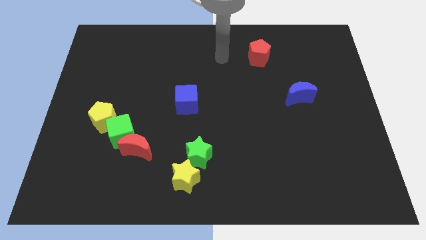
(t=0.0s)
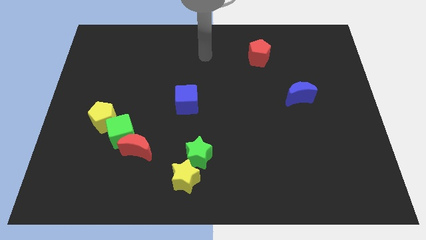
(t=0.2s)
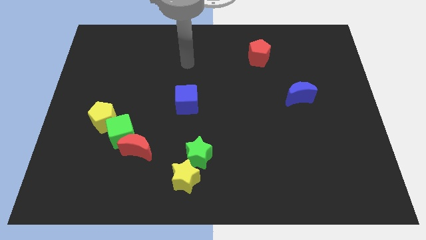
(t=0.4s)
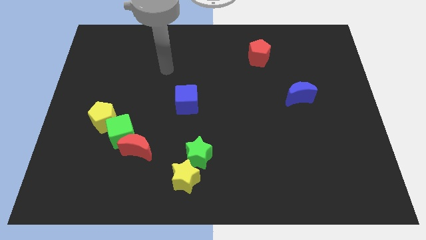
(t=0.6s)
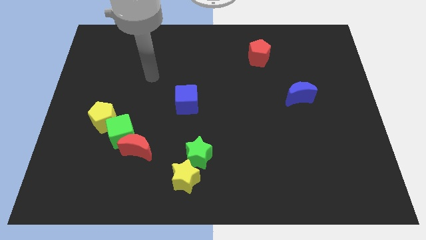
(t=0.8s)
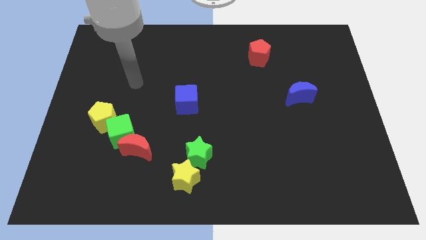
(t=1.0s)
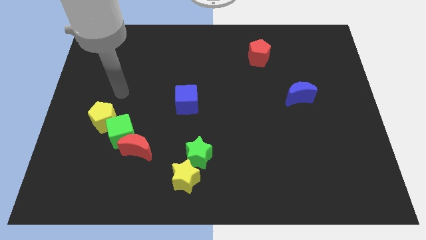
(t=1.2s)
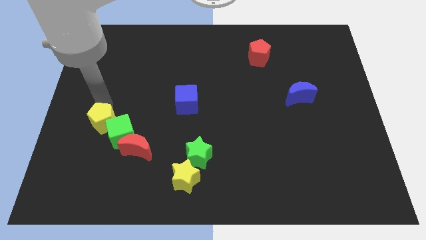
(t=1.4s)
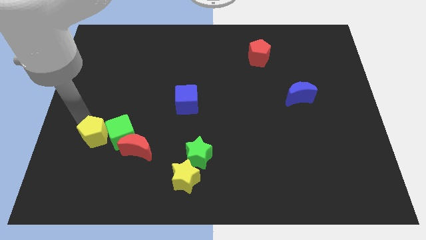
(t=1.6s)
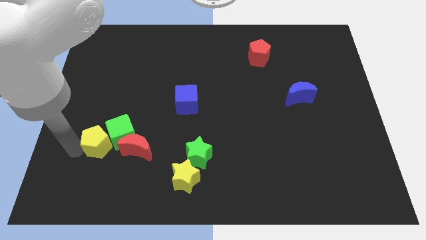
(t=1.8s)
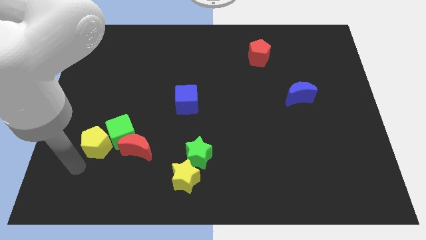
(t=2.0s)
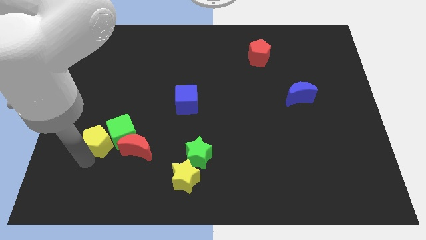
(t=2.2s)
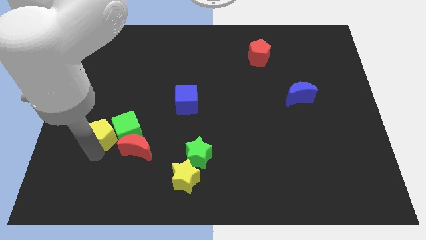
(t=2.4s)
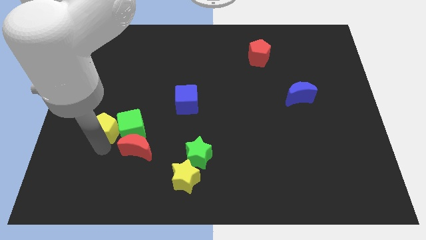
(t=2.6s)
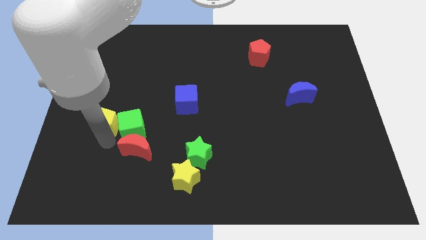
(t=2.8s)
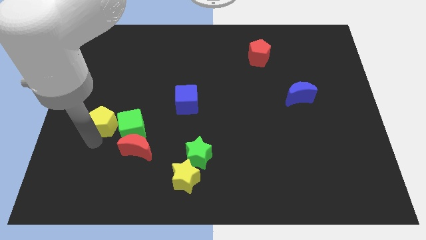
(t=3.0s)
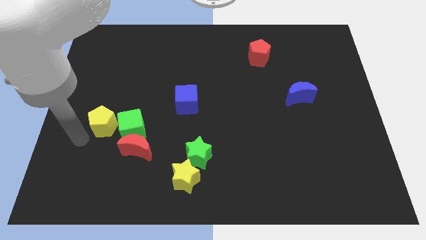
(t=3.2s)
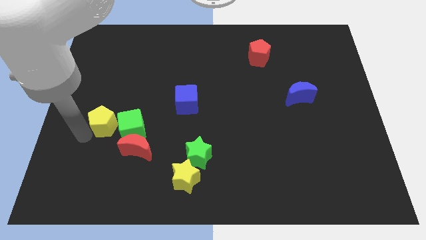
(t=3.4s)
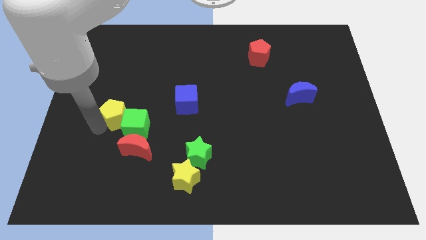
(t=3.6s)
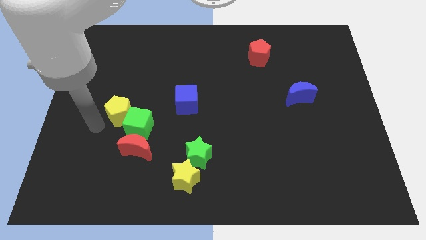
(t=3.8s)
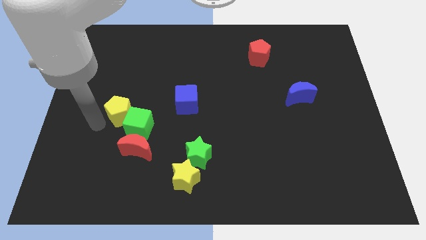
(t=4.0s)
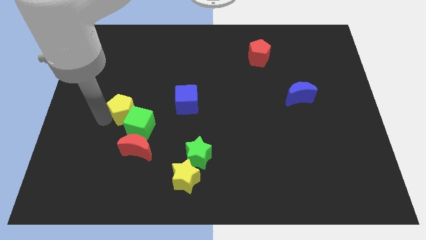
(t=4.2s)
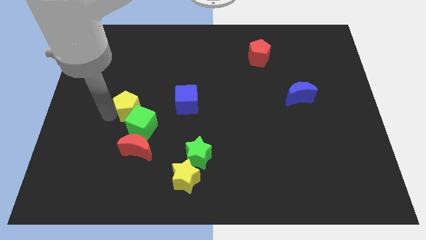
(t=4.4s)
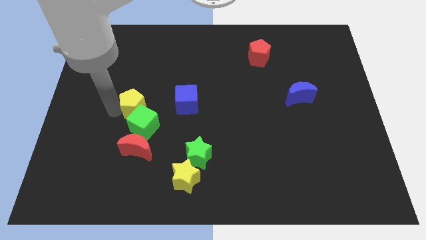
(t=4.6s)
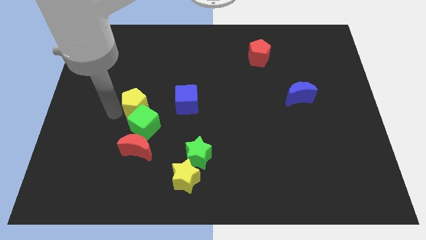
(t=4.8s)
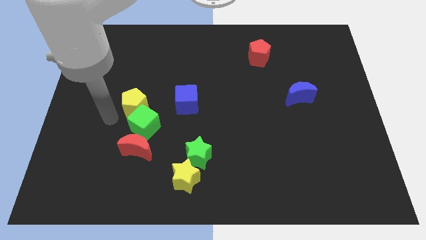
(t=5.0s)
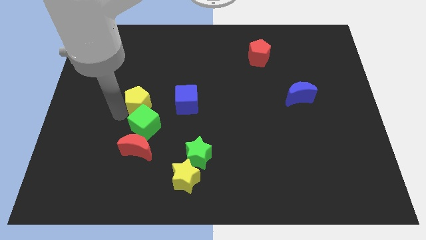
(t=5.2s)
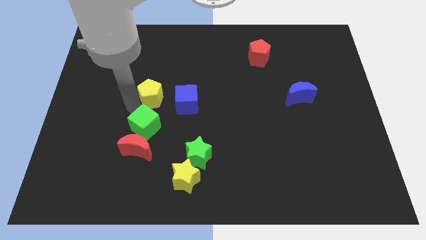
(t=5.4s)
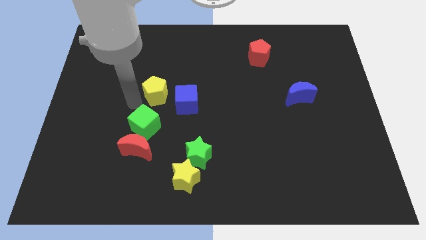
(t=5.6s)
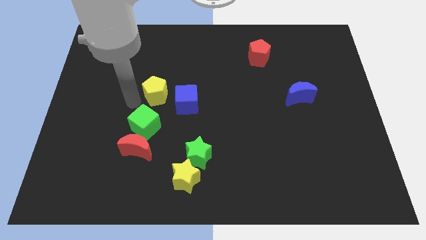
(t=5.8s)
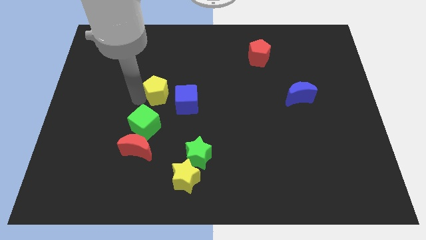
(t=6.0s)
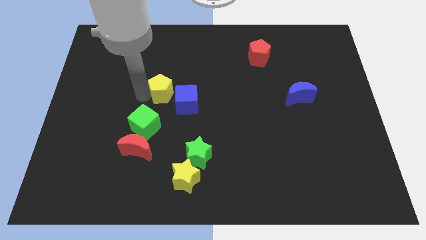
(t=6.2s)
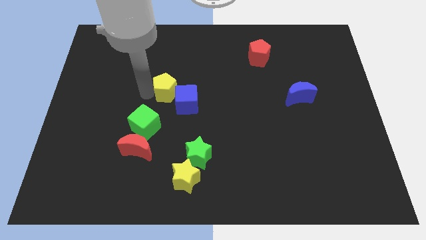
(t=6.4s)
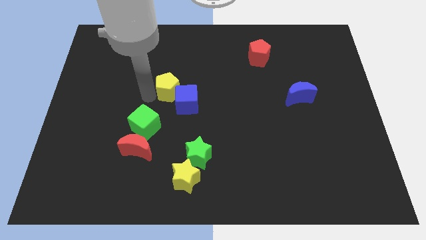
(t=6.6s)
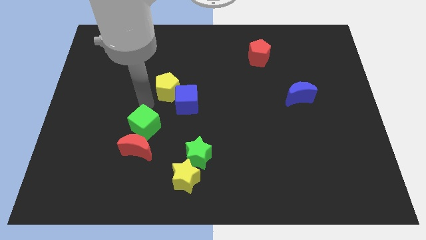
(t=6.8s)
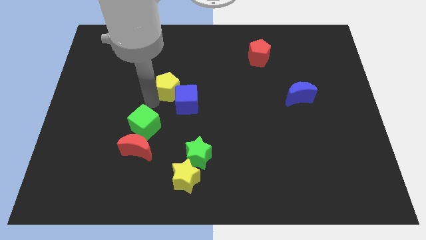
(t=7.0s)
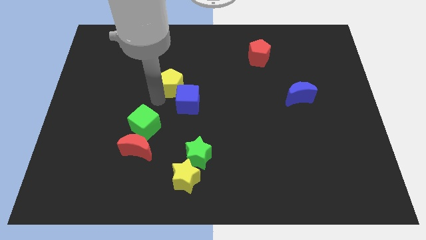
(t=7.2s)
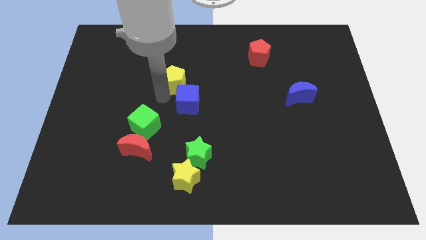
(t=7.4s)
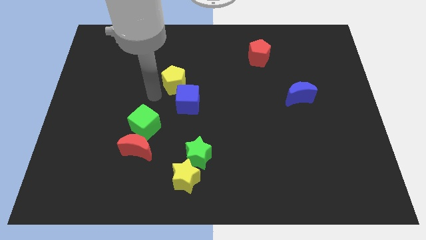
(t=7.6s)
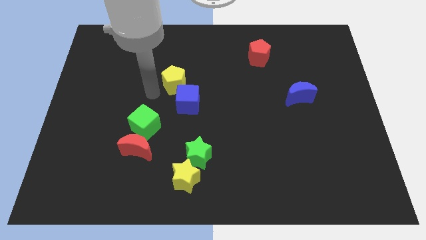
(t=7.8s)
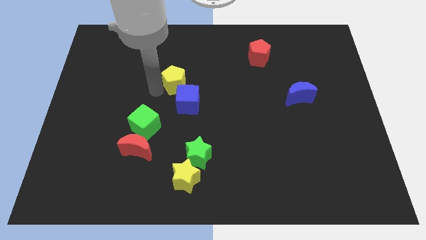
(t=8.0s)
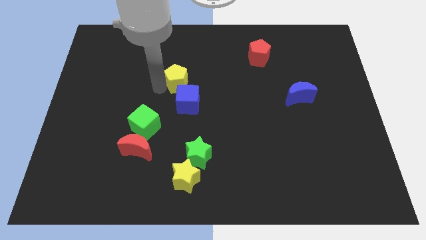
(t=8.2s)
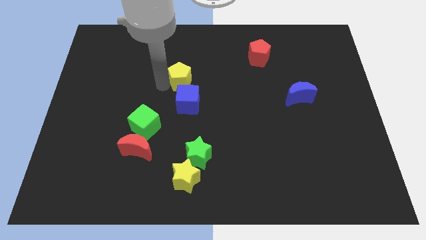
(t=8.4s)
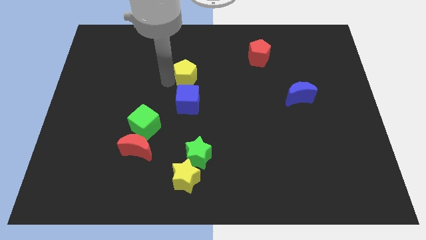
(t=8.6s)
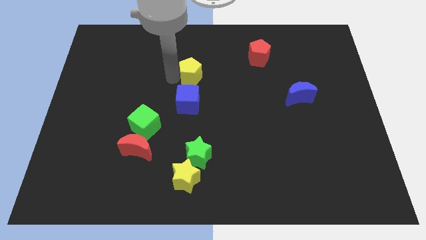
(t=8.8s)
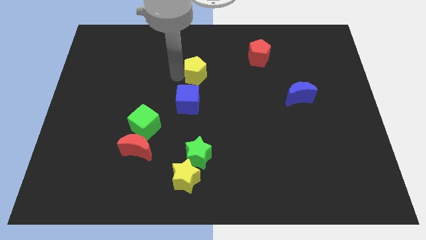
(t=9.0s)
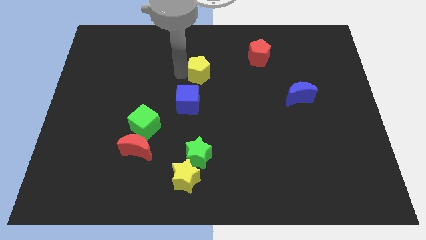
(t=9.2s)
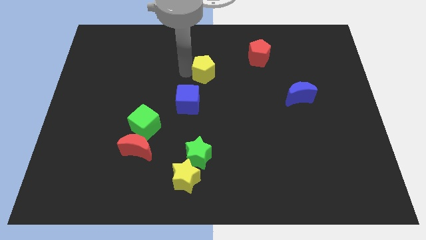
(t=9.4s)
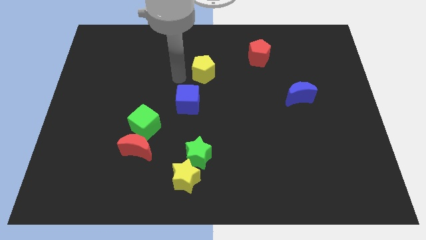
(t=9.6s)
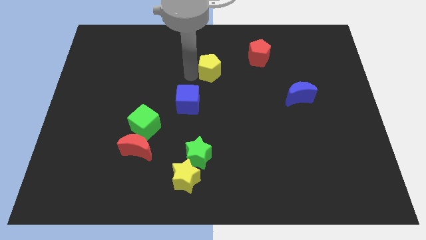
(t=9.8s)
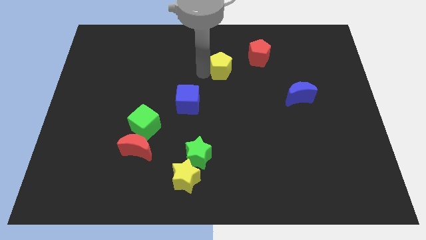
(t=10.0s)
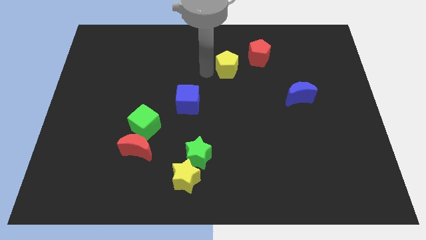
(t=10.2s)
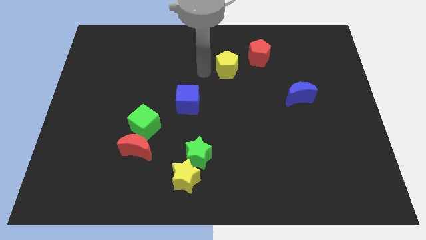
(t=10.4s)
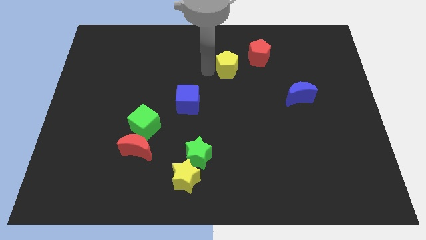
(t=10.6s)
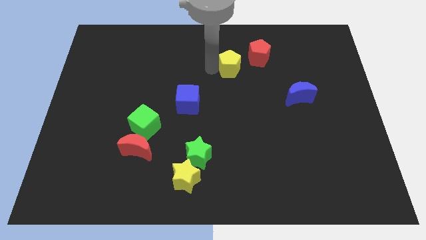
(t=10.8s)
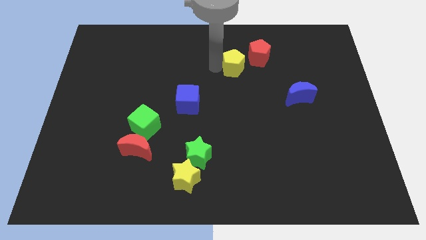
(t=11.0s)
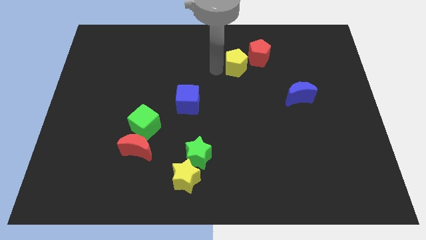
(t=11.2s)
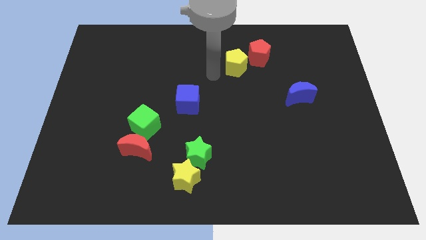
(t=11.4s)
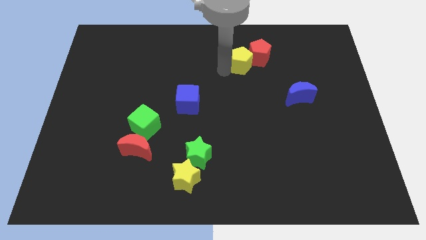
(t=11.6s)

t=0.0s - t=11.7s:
slide the yellow pentagon next to the red pentagon

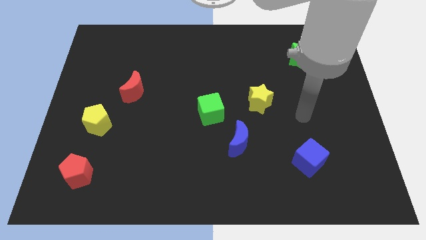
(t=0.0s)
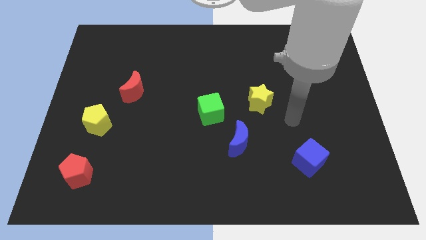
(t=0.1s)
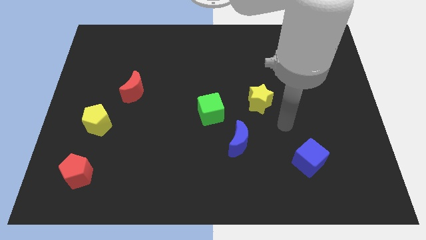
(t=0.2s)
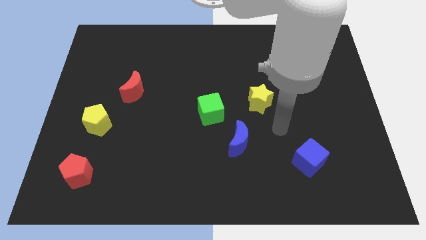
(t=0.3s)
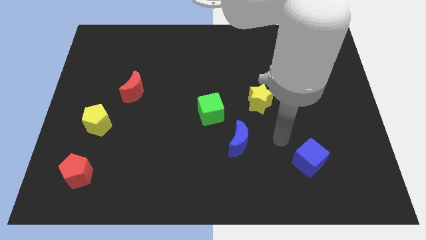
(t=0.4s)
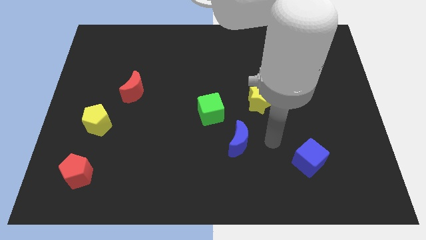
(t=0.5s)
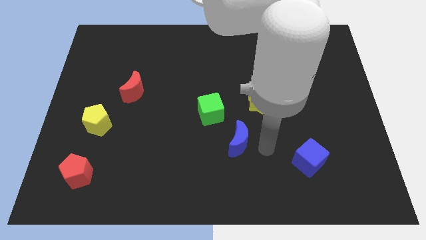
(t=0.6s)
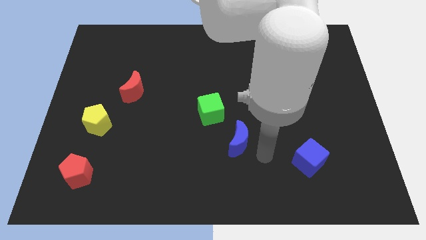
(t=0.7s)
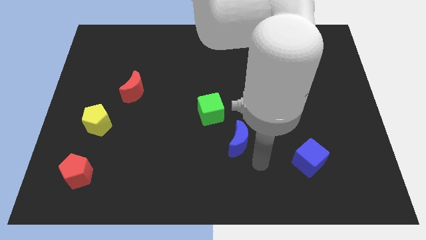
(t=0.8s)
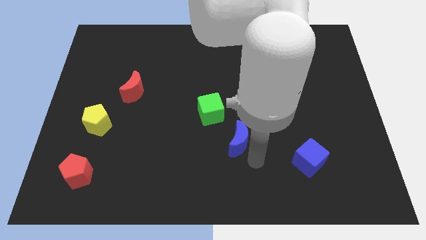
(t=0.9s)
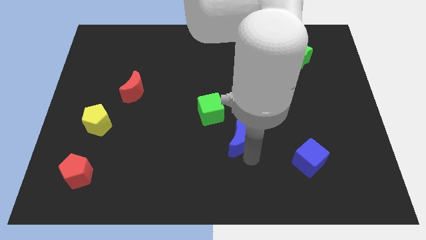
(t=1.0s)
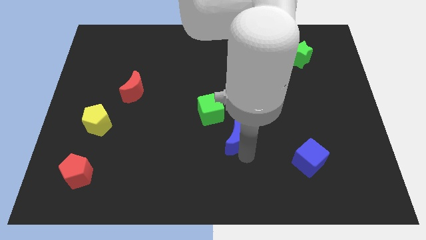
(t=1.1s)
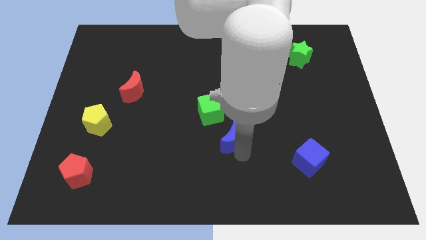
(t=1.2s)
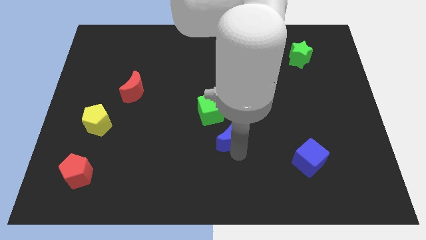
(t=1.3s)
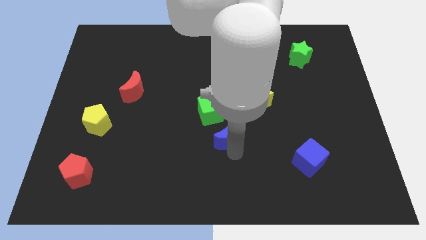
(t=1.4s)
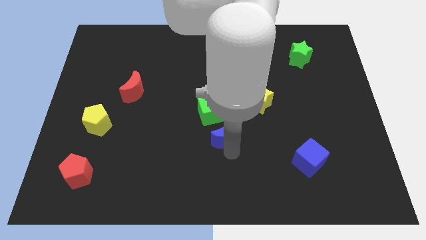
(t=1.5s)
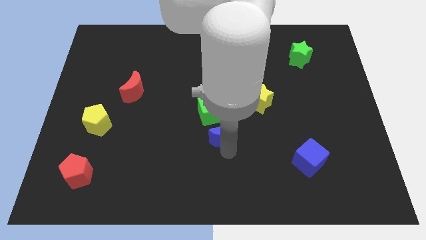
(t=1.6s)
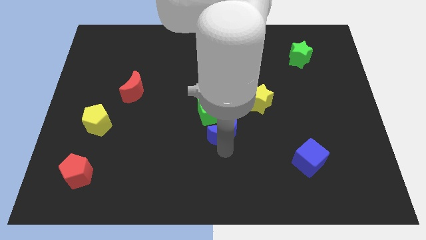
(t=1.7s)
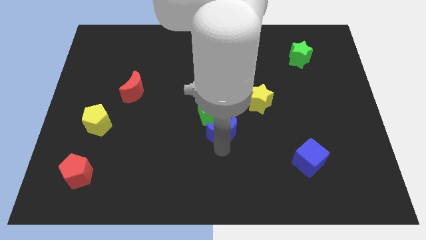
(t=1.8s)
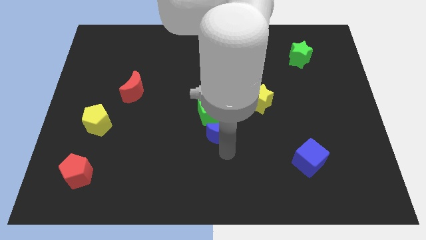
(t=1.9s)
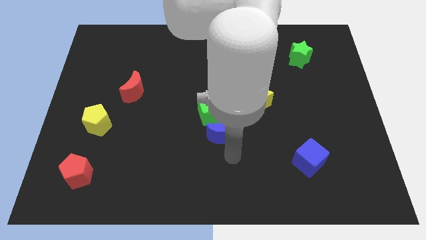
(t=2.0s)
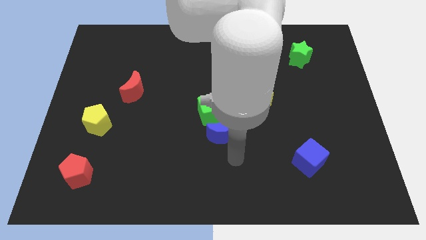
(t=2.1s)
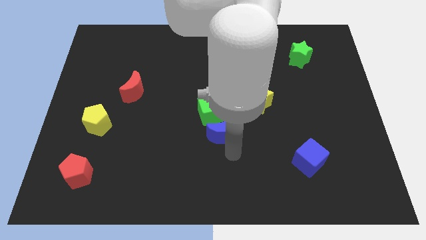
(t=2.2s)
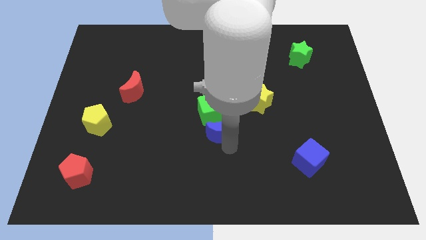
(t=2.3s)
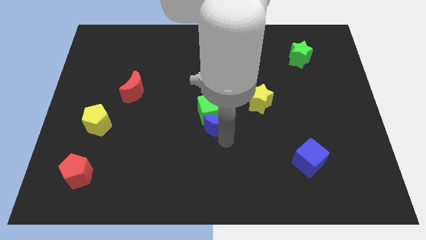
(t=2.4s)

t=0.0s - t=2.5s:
slide the blue moon to the green cube
